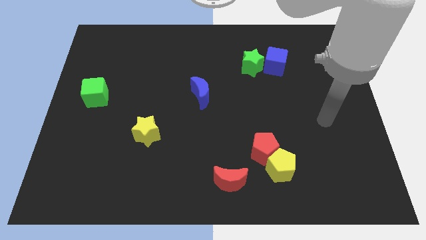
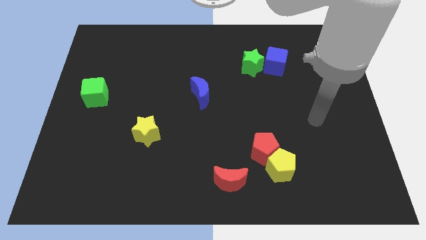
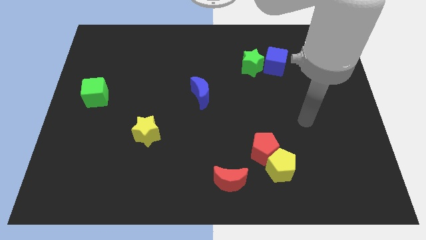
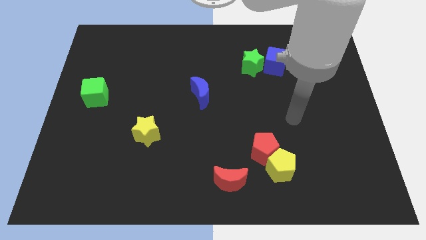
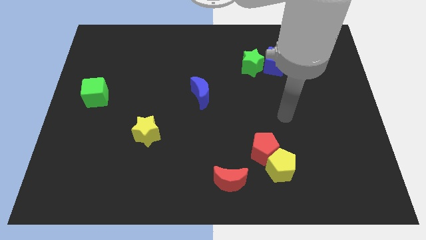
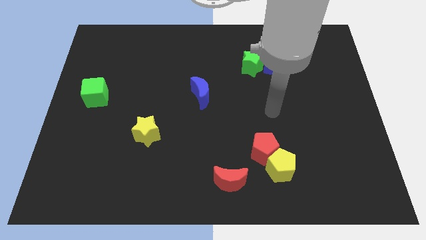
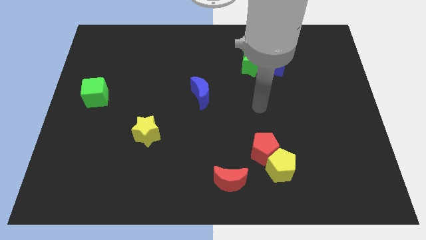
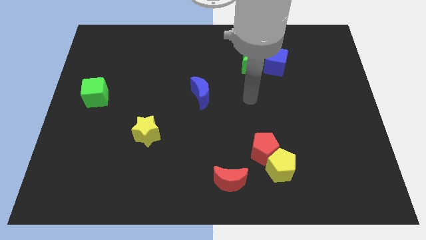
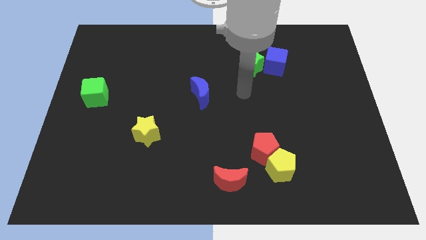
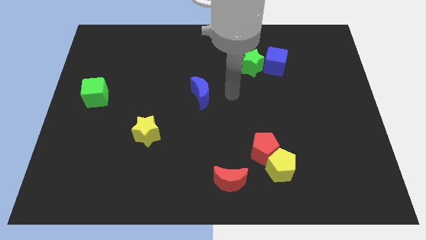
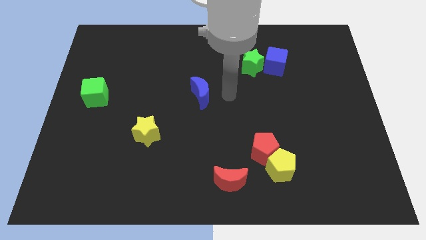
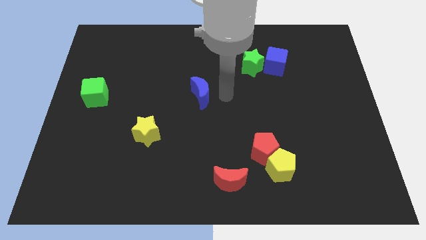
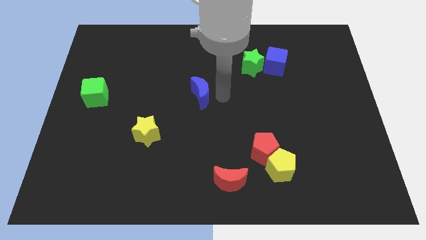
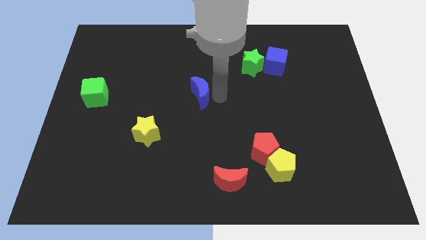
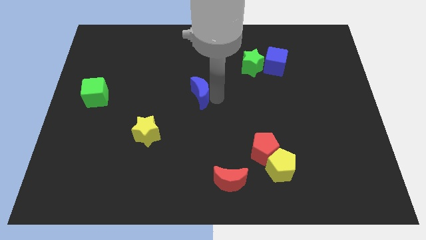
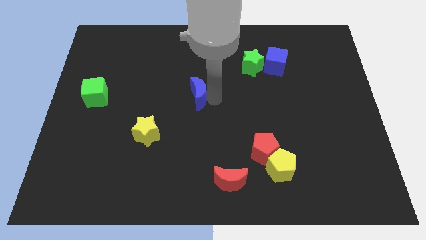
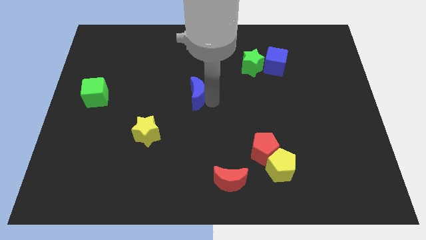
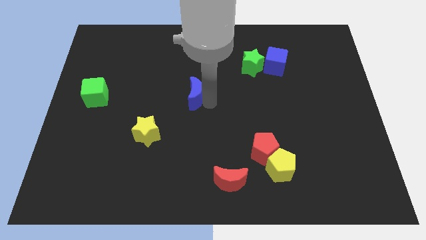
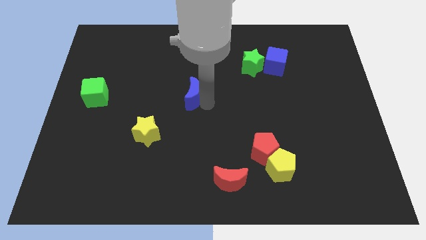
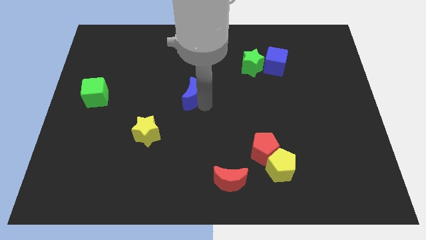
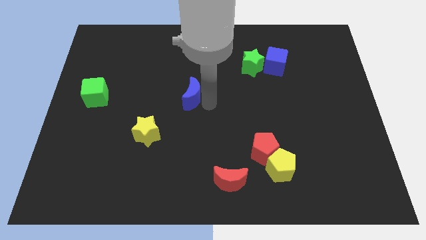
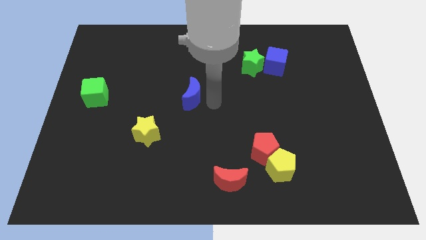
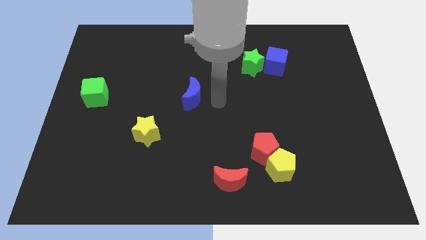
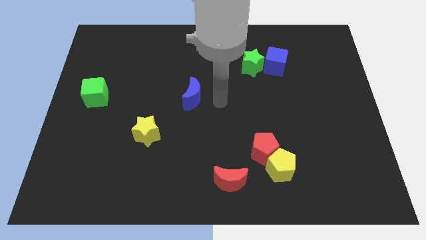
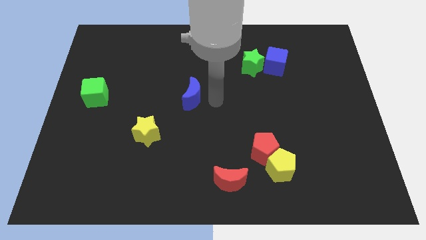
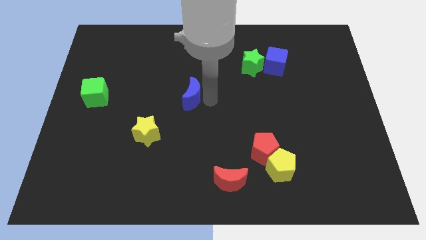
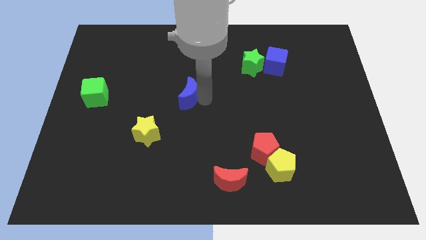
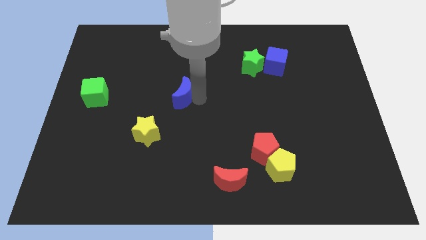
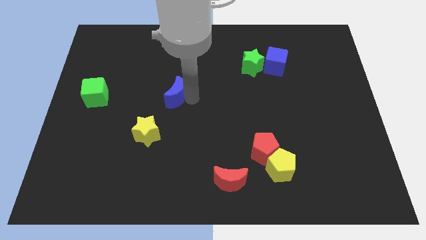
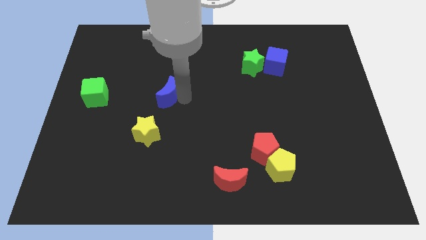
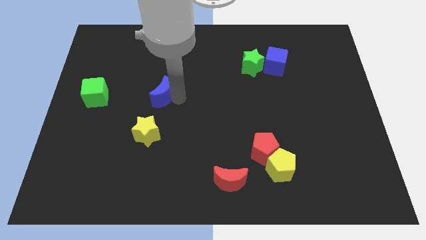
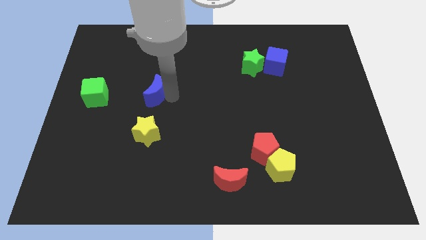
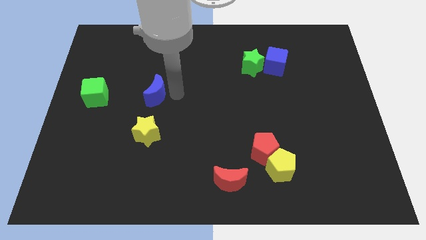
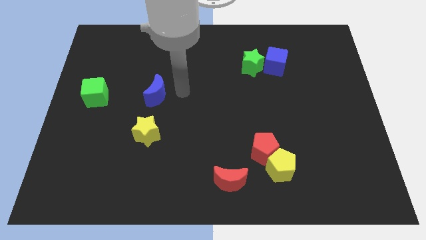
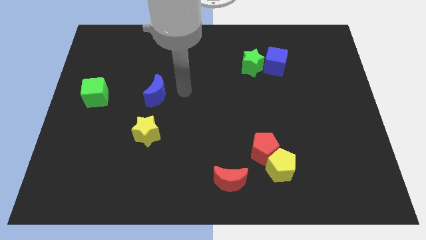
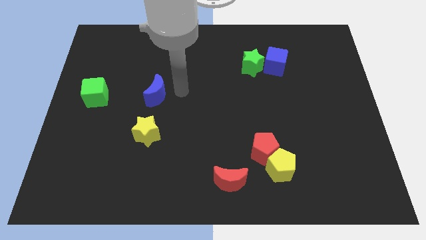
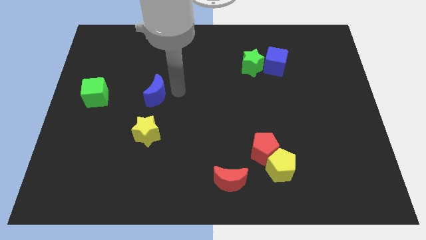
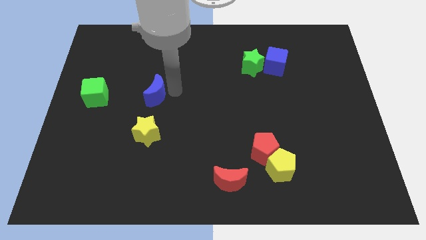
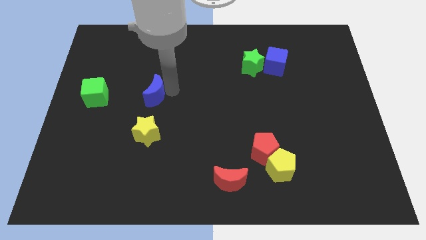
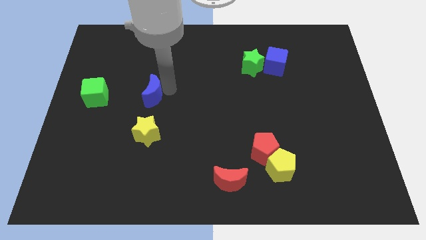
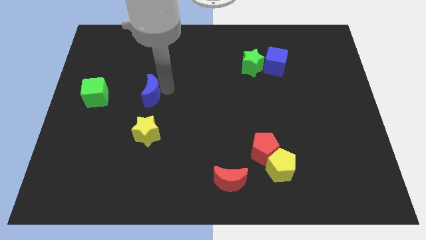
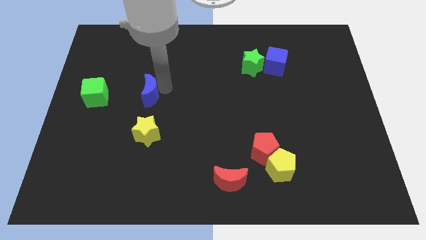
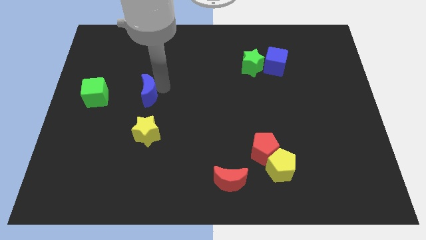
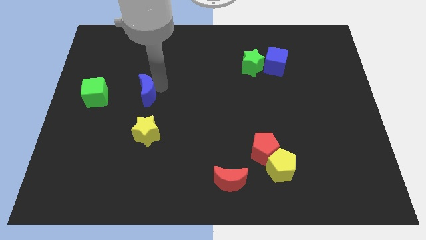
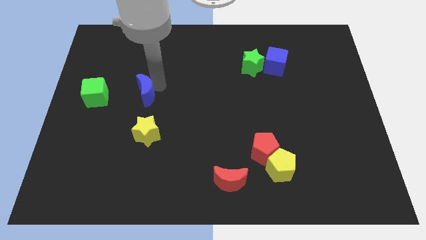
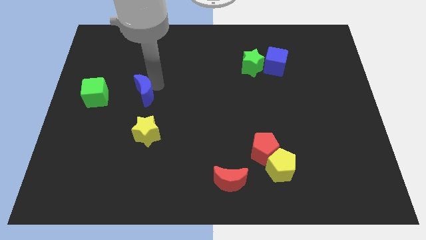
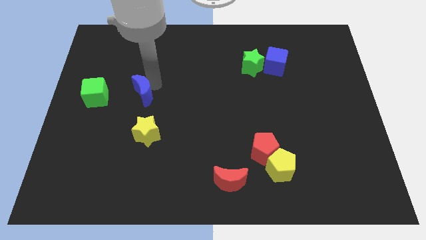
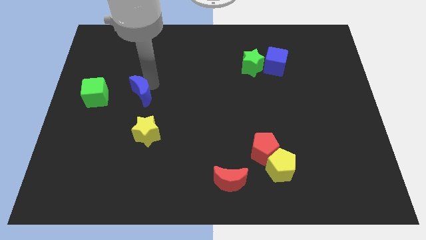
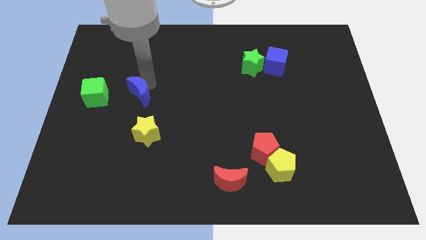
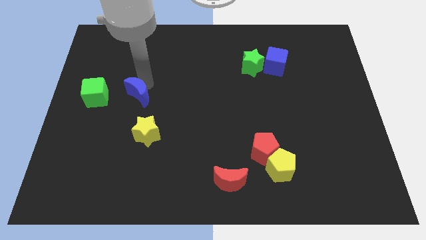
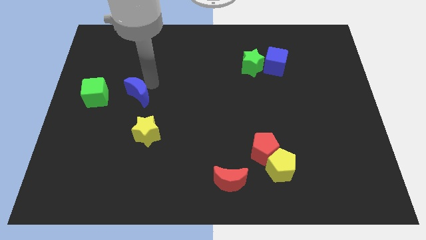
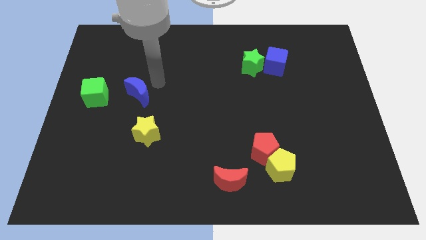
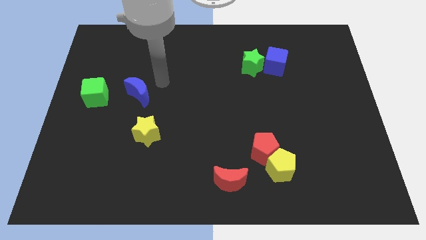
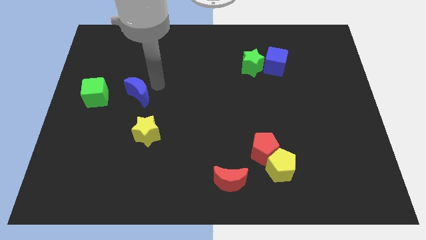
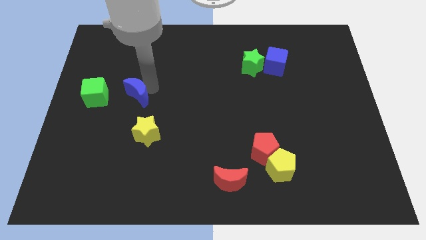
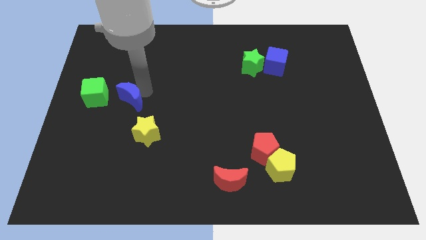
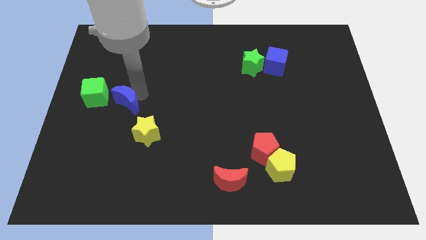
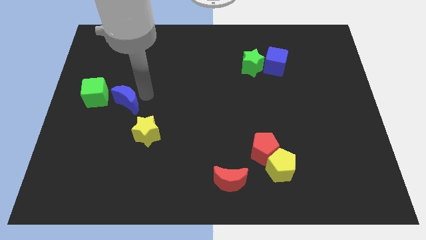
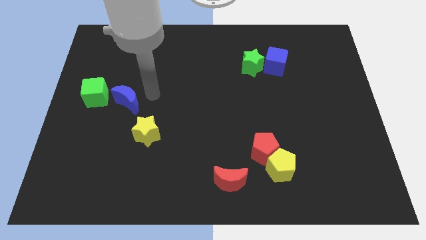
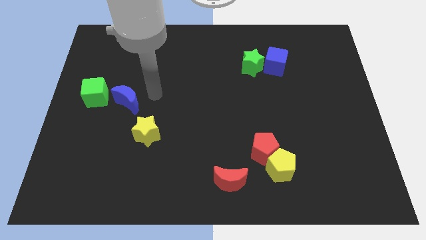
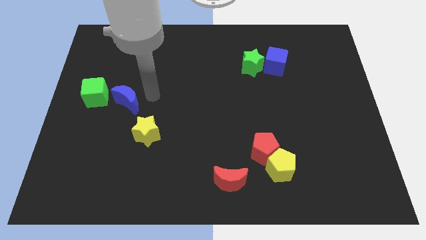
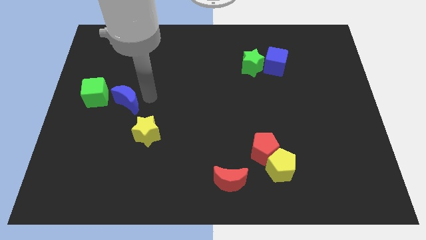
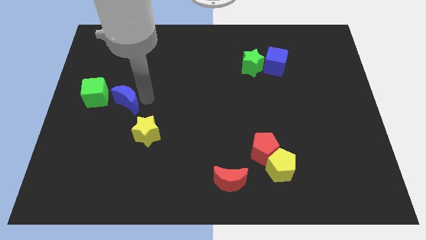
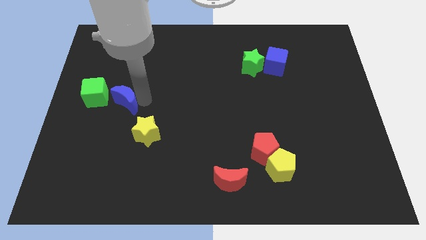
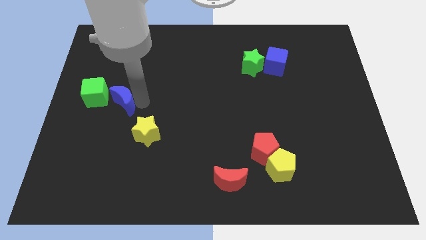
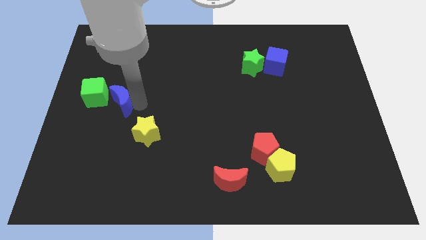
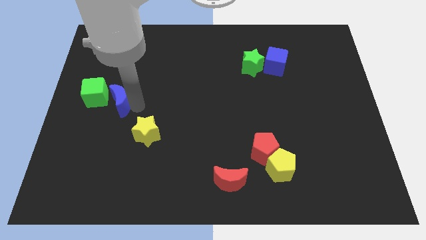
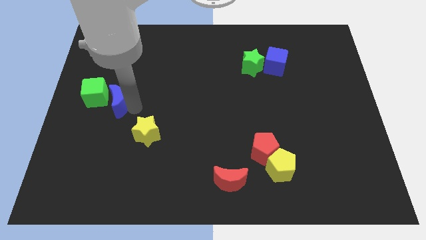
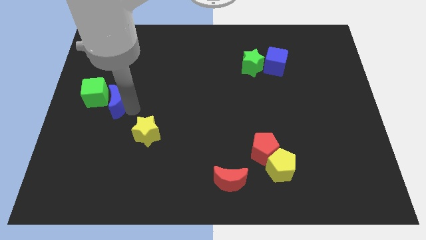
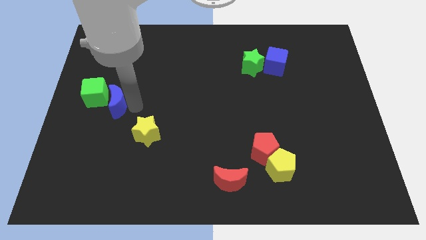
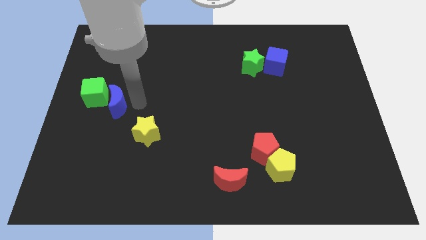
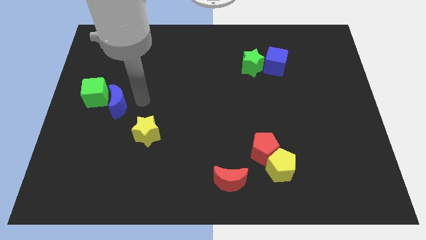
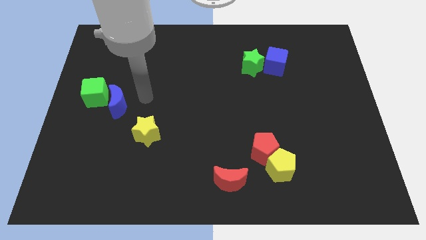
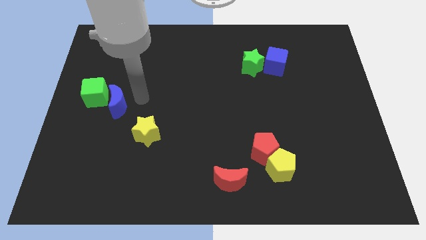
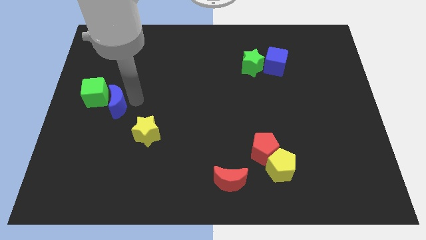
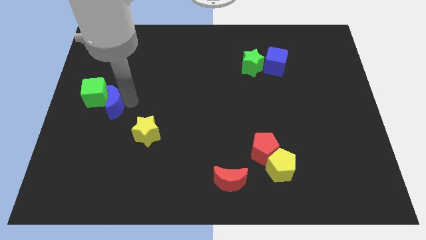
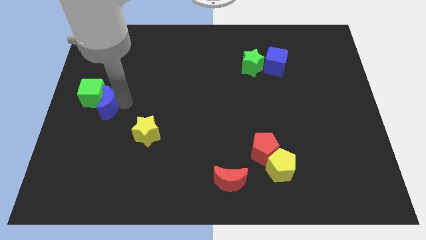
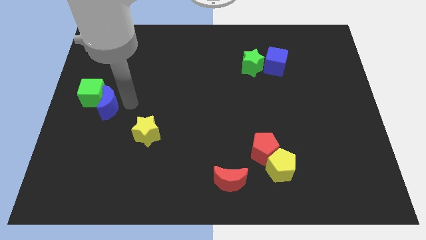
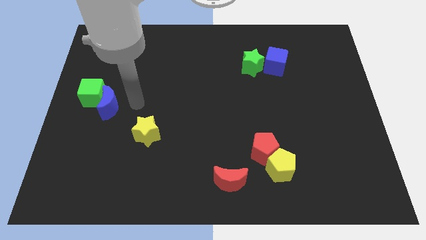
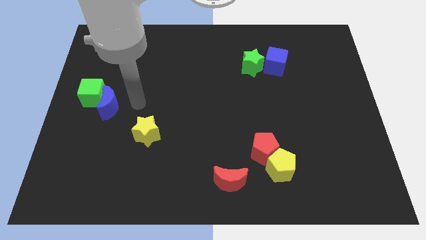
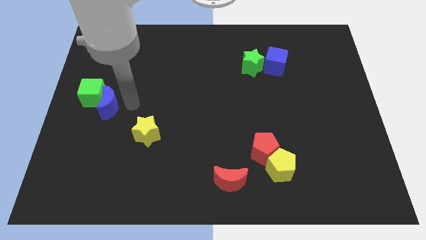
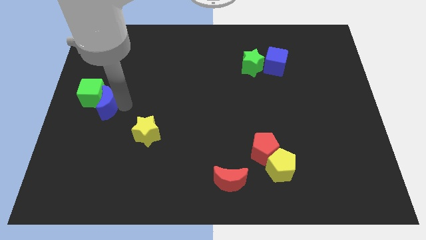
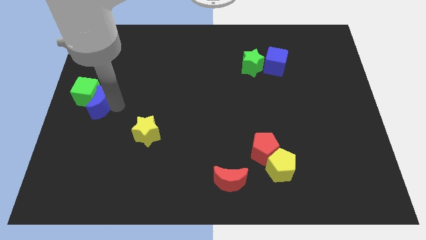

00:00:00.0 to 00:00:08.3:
move the blue moon to the center left
